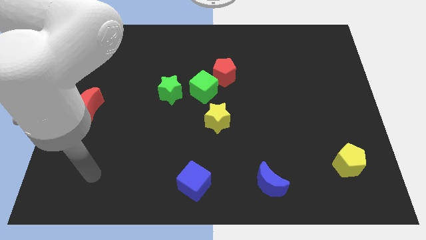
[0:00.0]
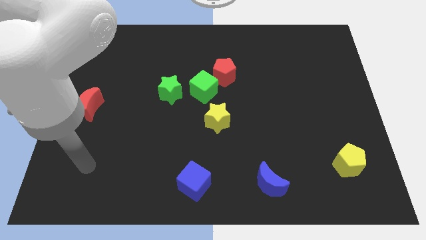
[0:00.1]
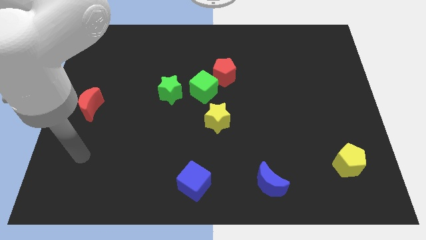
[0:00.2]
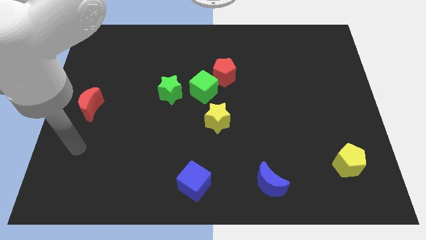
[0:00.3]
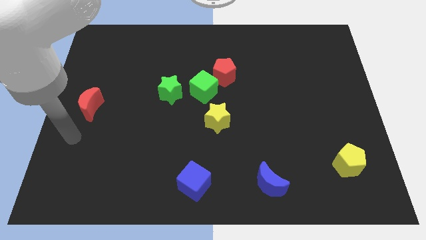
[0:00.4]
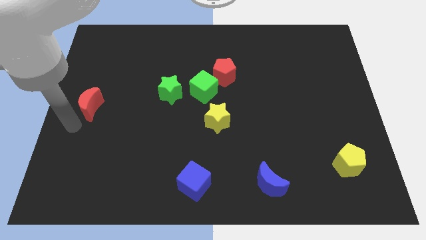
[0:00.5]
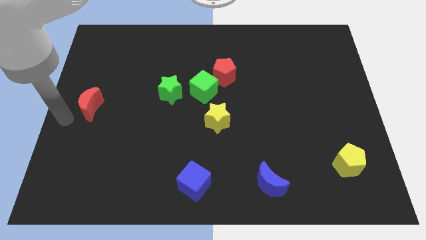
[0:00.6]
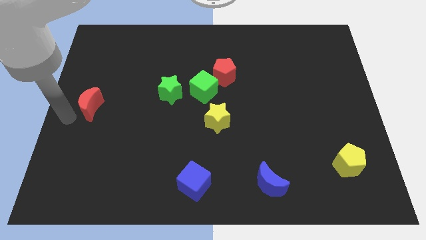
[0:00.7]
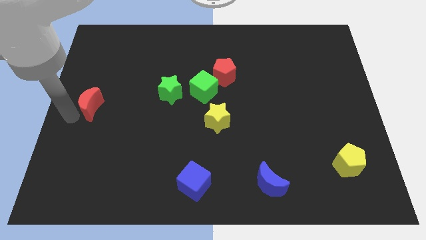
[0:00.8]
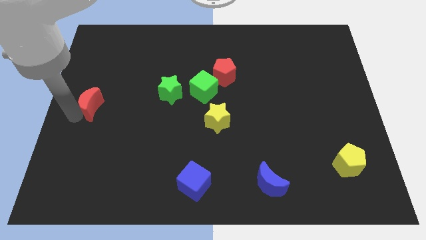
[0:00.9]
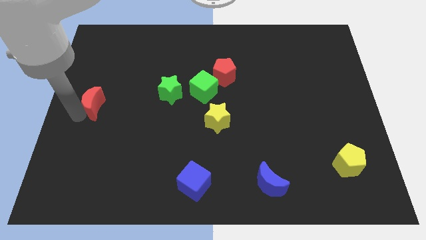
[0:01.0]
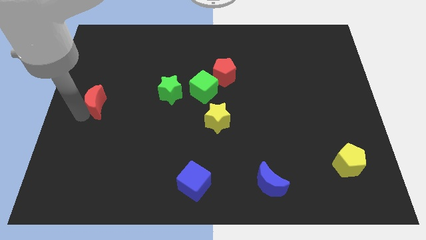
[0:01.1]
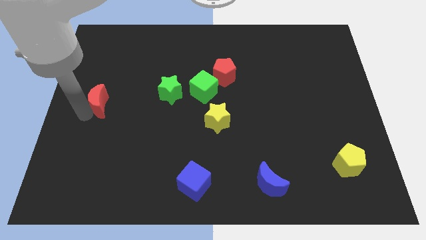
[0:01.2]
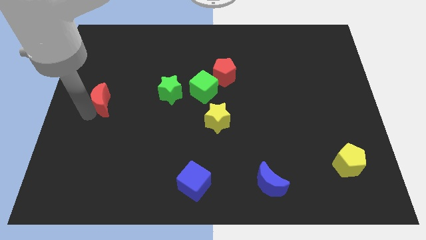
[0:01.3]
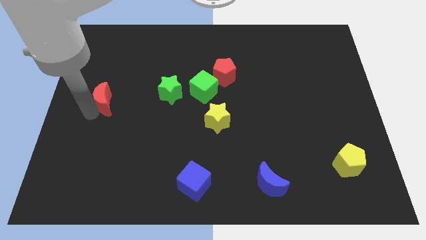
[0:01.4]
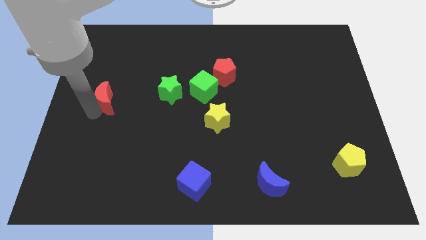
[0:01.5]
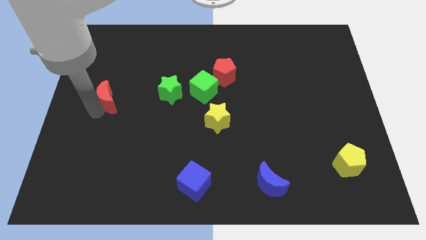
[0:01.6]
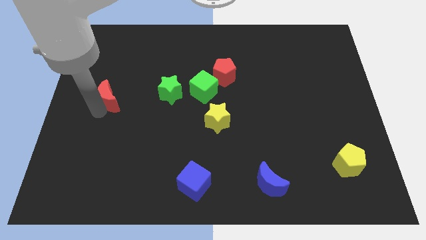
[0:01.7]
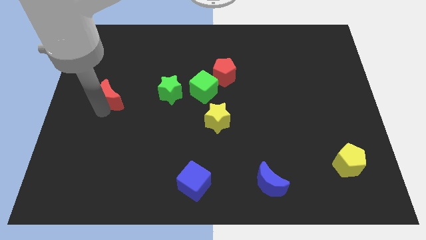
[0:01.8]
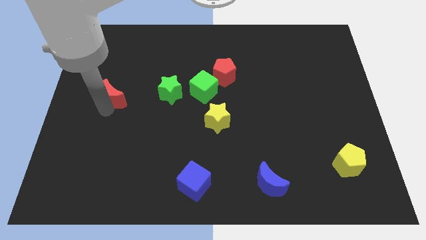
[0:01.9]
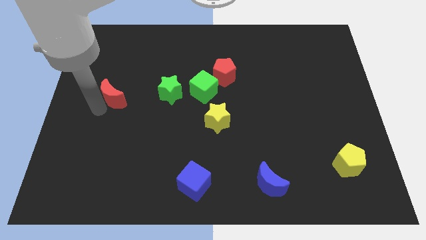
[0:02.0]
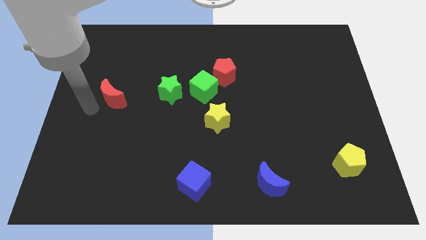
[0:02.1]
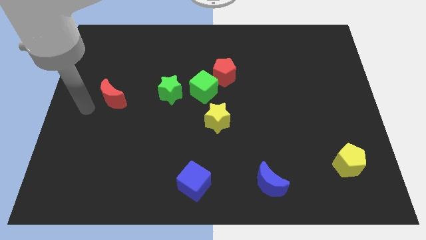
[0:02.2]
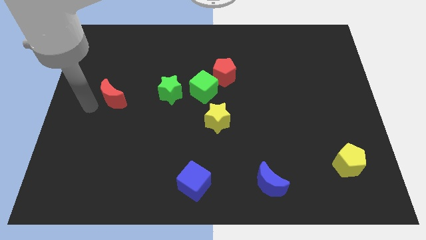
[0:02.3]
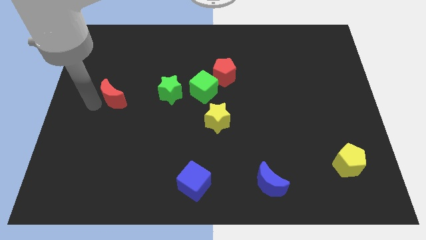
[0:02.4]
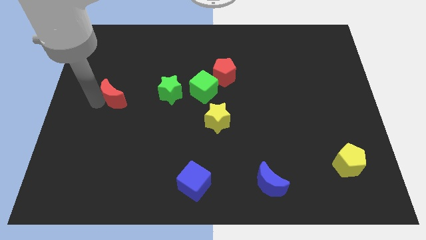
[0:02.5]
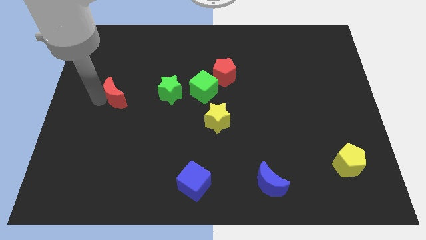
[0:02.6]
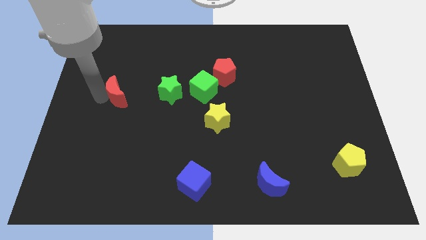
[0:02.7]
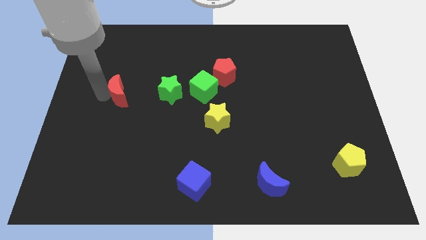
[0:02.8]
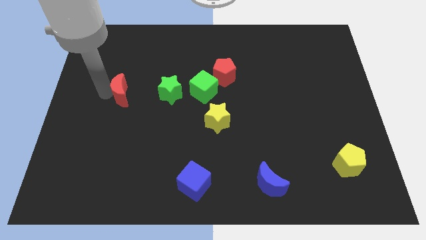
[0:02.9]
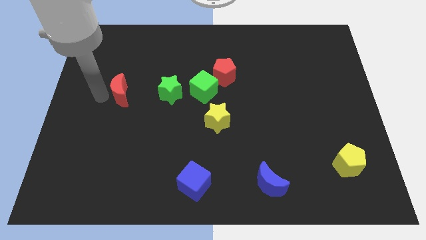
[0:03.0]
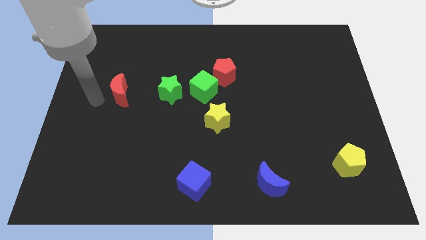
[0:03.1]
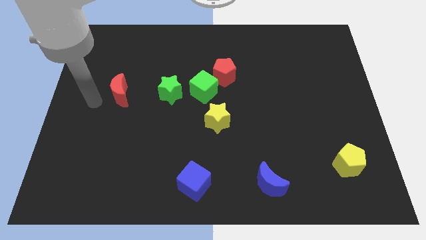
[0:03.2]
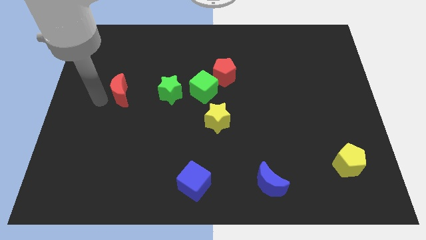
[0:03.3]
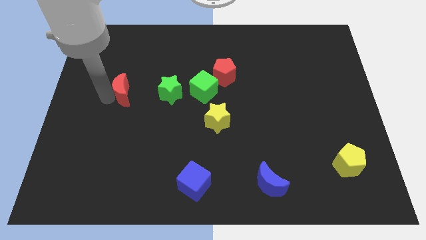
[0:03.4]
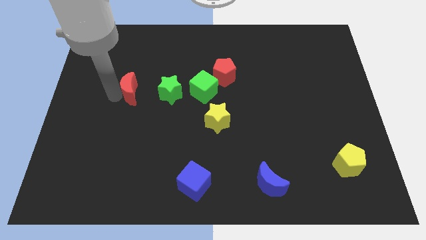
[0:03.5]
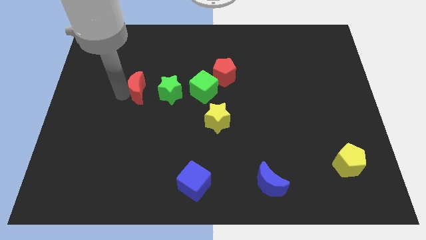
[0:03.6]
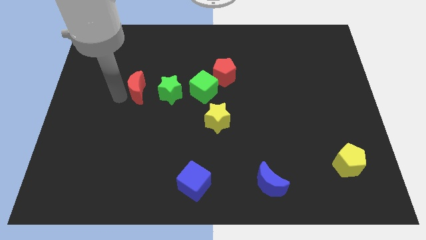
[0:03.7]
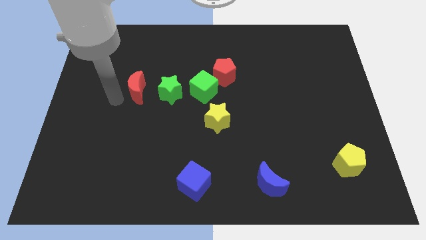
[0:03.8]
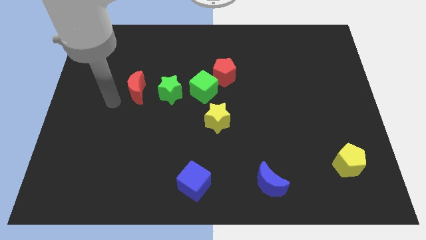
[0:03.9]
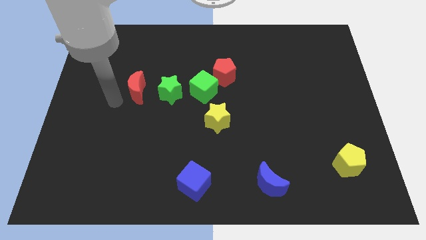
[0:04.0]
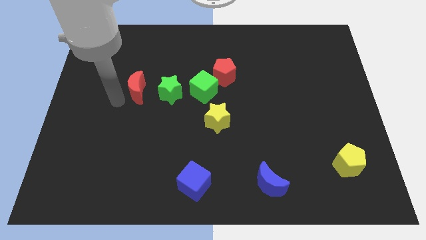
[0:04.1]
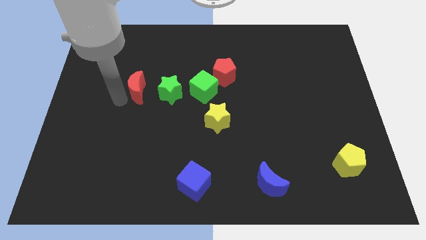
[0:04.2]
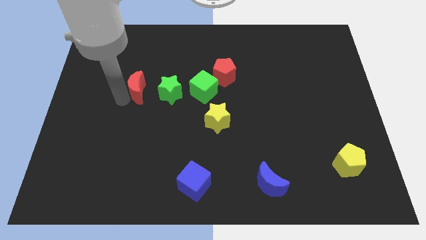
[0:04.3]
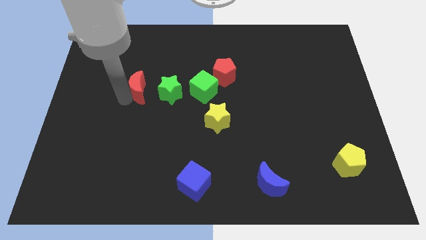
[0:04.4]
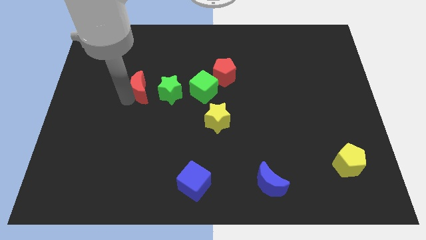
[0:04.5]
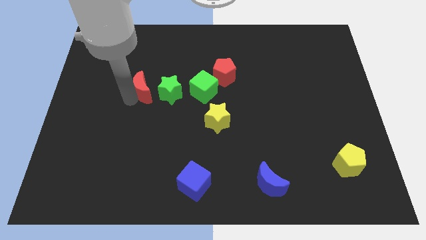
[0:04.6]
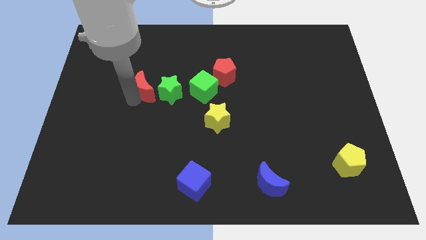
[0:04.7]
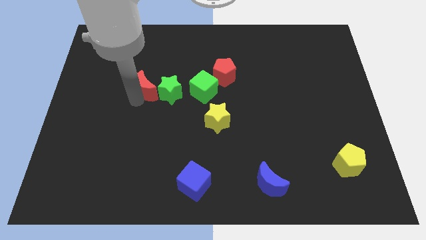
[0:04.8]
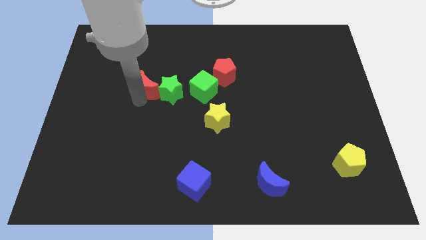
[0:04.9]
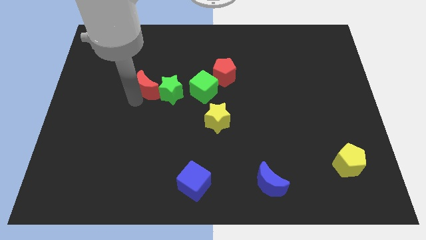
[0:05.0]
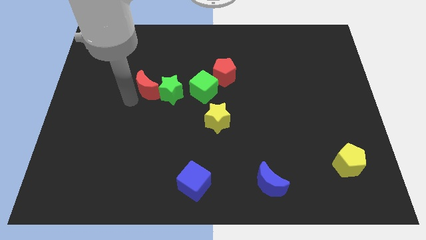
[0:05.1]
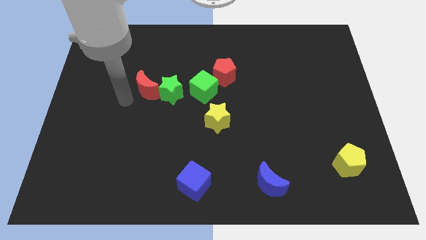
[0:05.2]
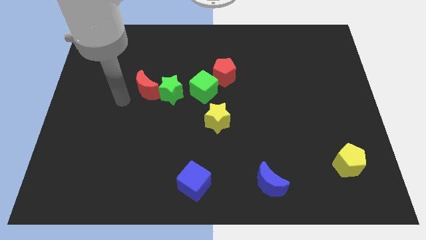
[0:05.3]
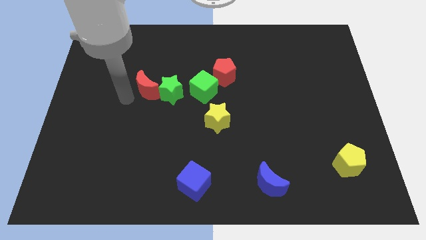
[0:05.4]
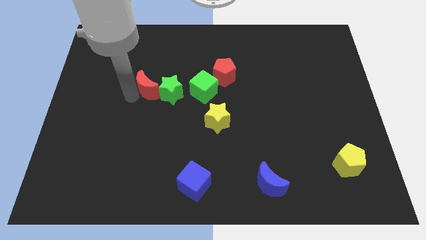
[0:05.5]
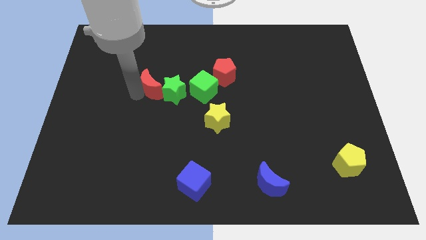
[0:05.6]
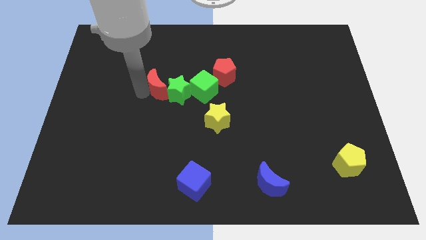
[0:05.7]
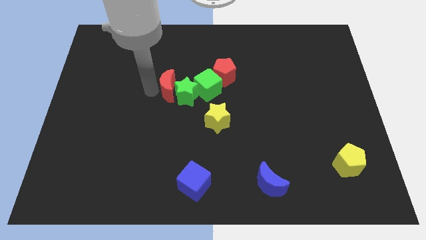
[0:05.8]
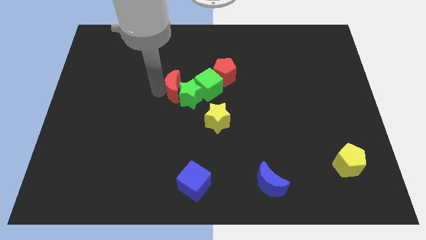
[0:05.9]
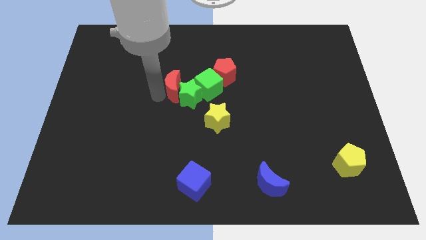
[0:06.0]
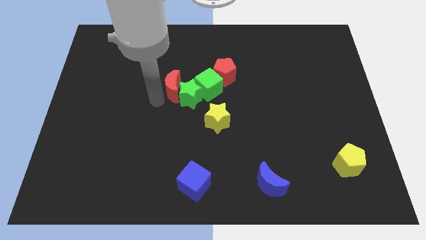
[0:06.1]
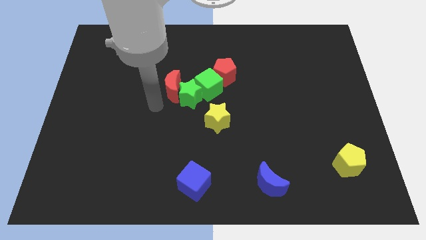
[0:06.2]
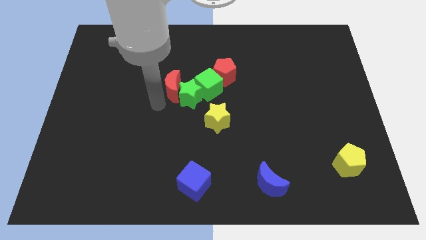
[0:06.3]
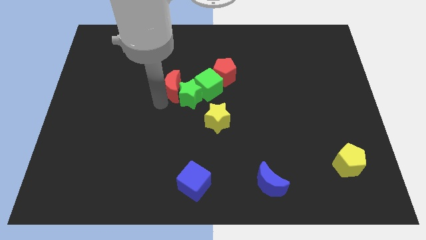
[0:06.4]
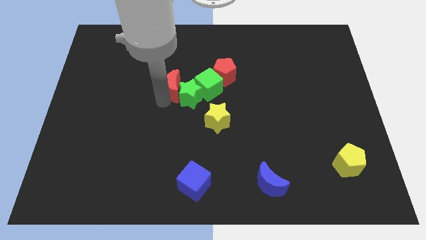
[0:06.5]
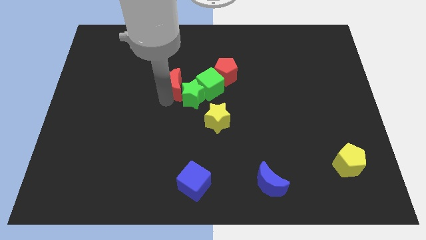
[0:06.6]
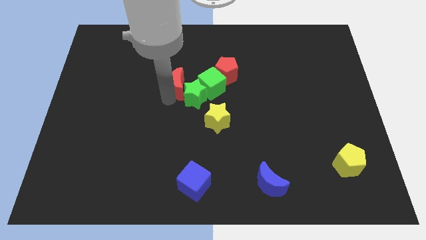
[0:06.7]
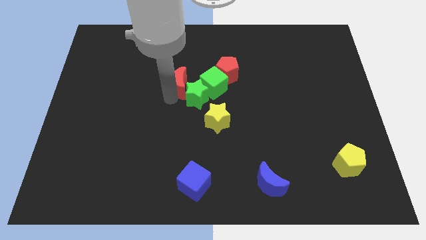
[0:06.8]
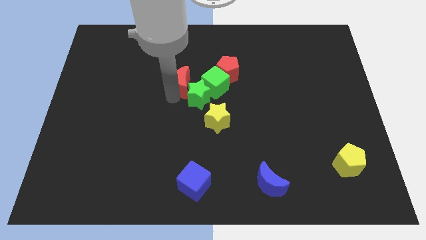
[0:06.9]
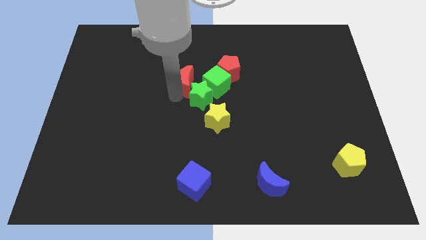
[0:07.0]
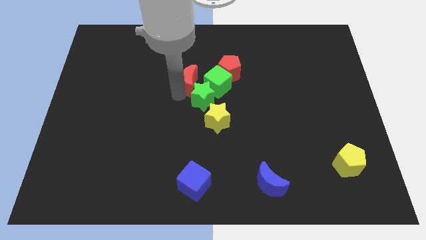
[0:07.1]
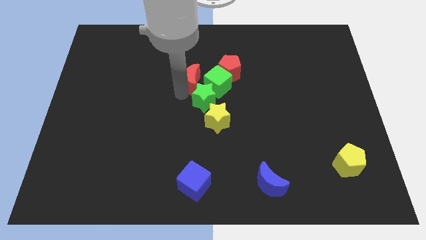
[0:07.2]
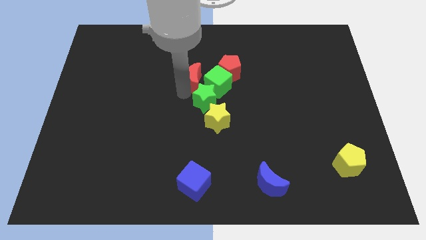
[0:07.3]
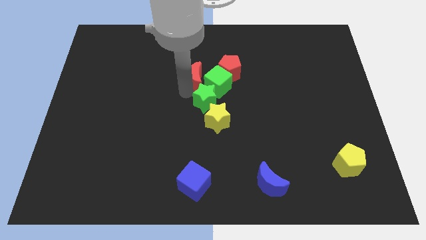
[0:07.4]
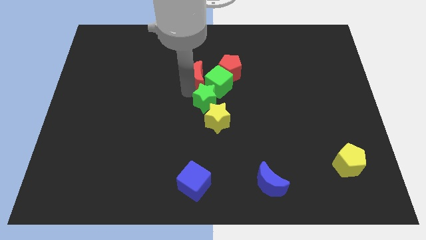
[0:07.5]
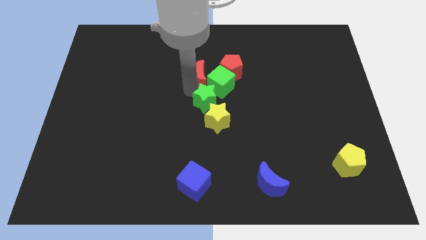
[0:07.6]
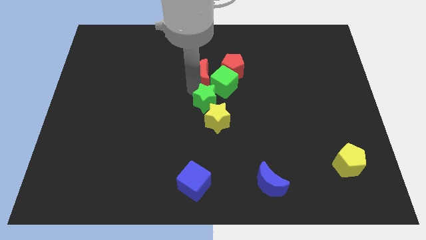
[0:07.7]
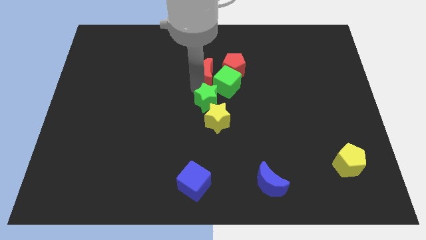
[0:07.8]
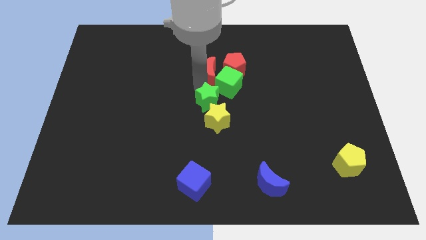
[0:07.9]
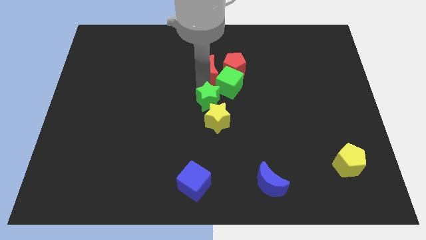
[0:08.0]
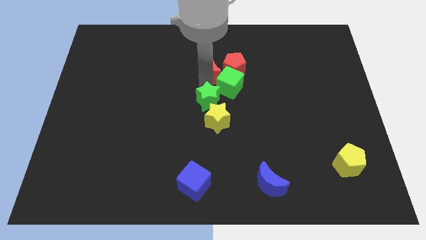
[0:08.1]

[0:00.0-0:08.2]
push the red moon close to the red pentagon
